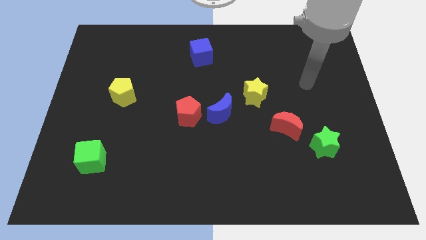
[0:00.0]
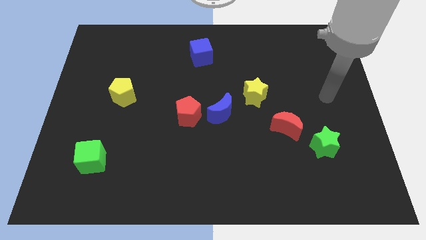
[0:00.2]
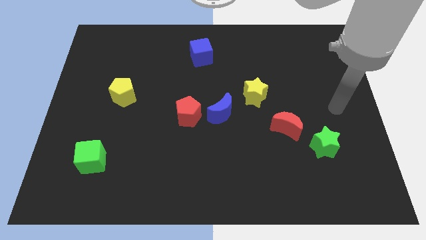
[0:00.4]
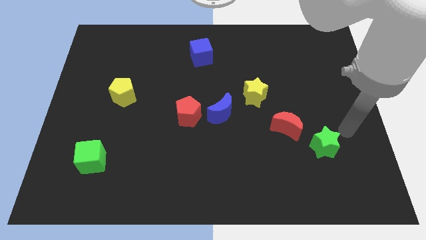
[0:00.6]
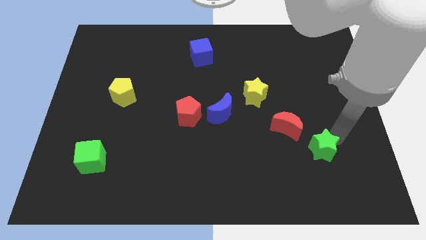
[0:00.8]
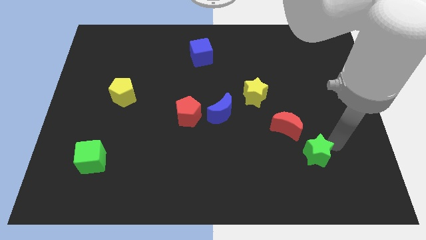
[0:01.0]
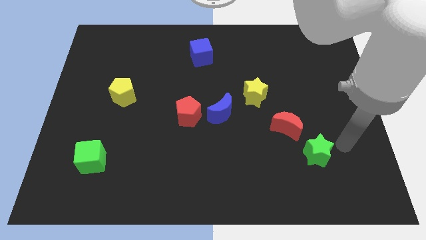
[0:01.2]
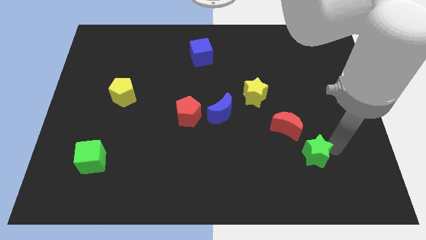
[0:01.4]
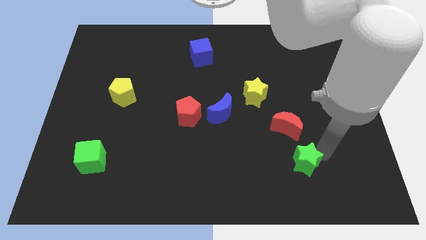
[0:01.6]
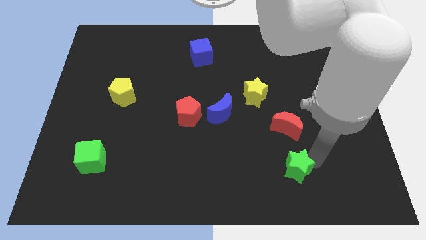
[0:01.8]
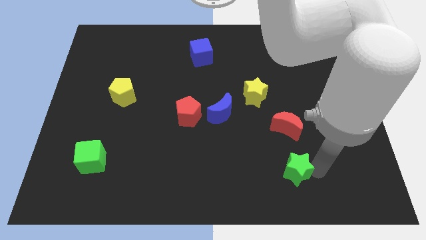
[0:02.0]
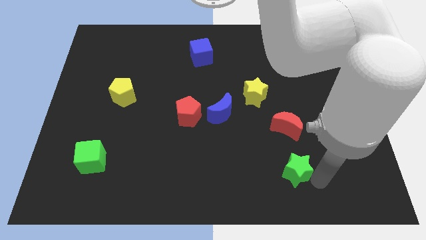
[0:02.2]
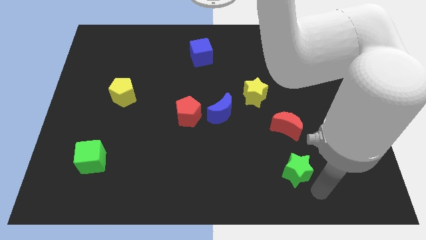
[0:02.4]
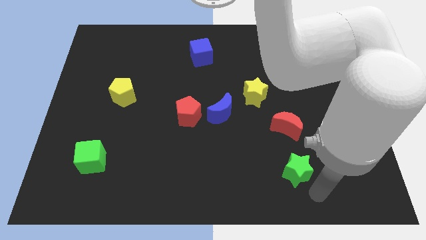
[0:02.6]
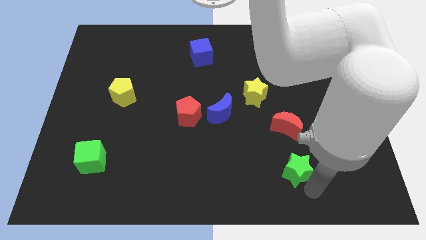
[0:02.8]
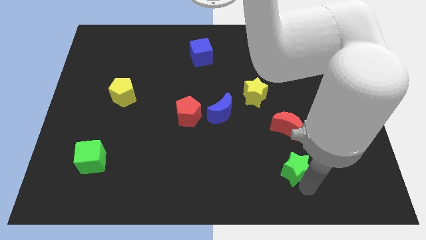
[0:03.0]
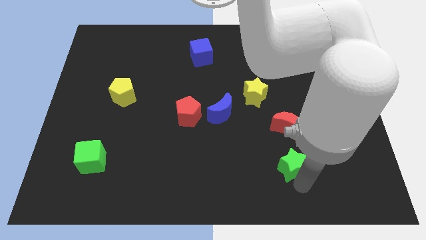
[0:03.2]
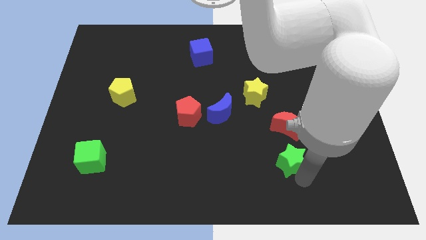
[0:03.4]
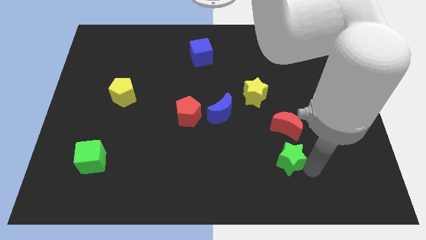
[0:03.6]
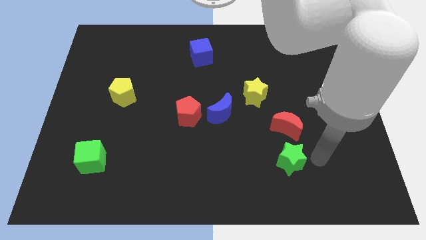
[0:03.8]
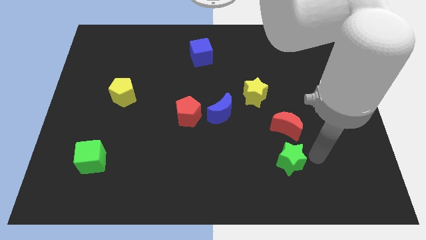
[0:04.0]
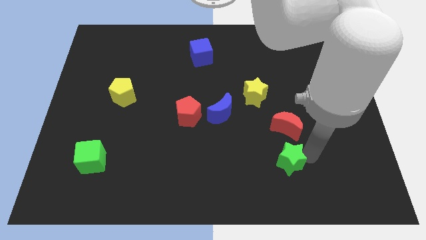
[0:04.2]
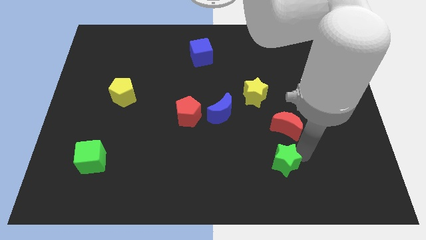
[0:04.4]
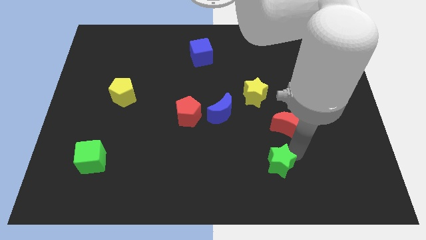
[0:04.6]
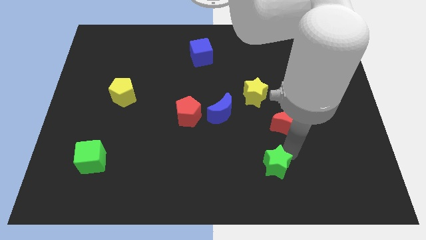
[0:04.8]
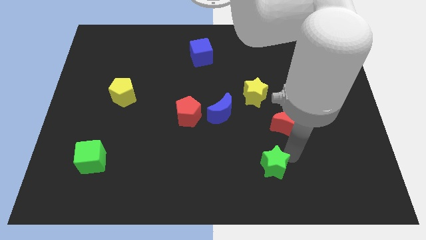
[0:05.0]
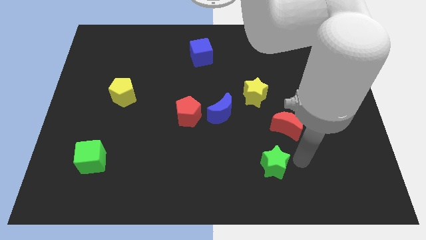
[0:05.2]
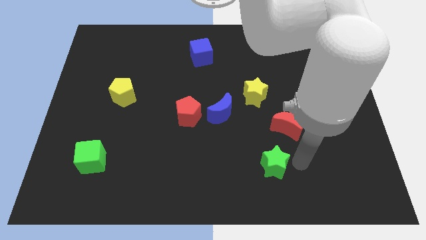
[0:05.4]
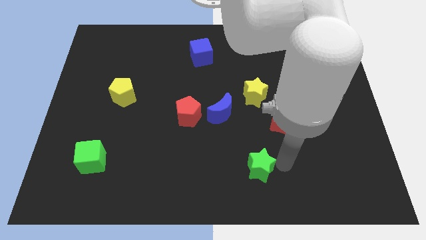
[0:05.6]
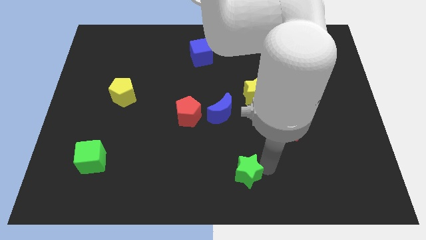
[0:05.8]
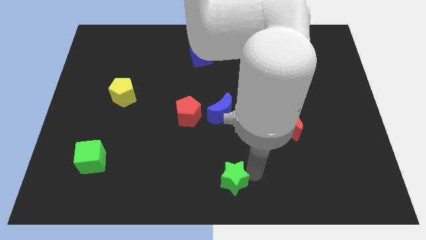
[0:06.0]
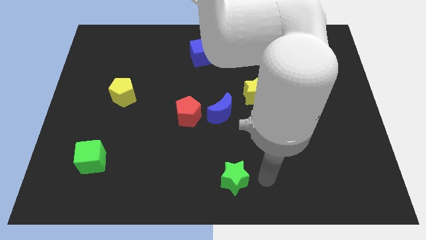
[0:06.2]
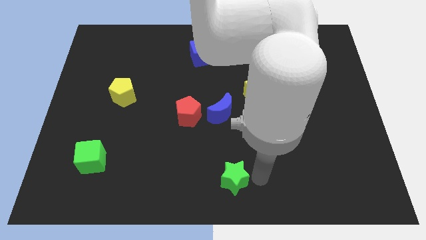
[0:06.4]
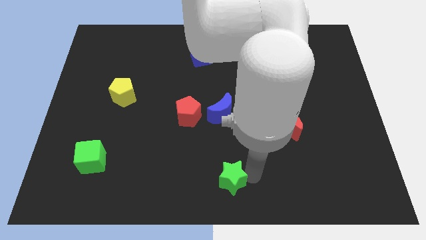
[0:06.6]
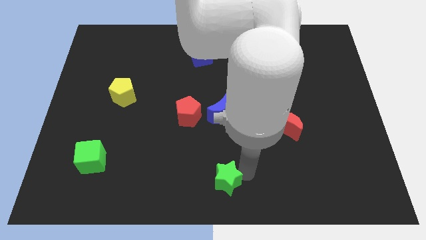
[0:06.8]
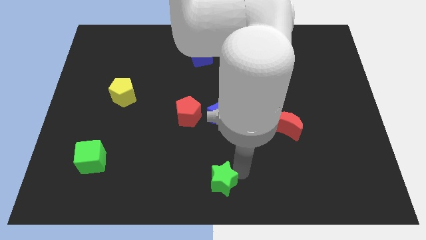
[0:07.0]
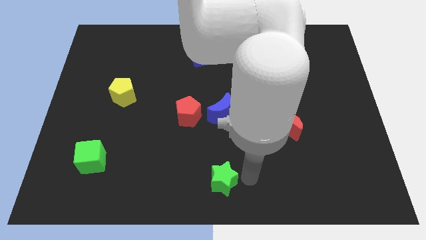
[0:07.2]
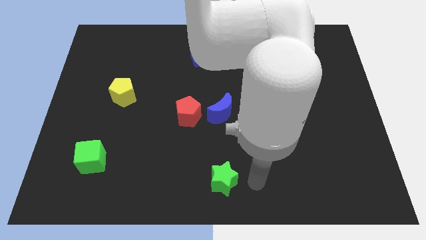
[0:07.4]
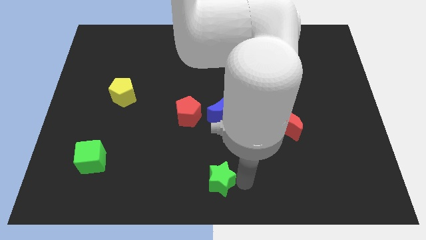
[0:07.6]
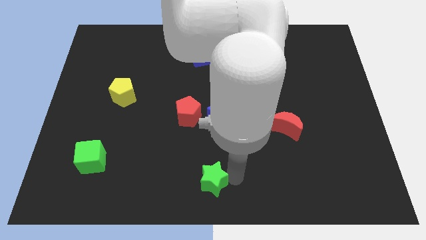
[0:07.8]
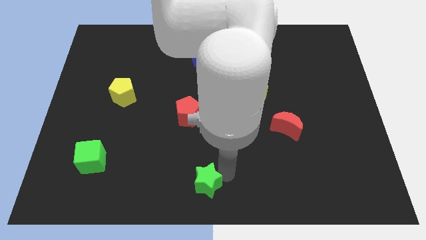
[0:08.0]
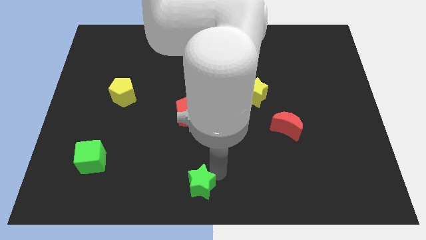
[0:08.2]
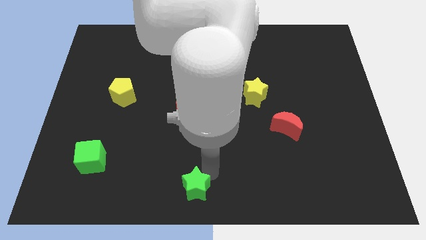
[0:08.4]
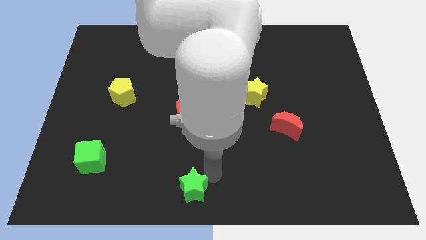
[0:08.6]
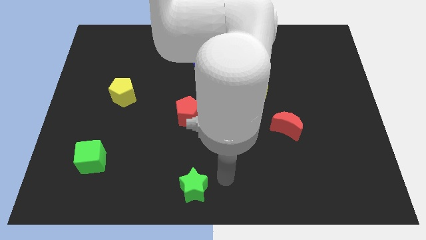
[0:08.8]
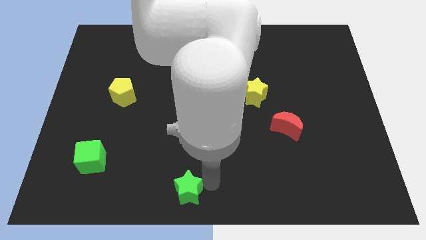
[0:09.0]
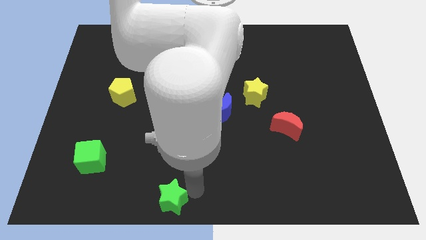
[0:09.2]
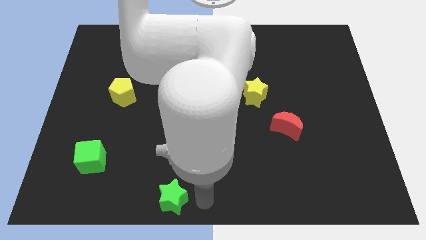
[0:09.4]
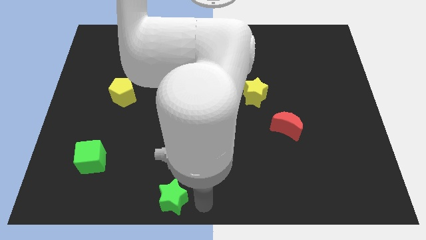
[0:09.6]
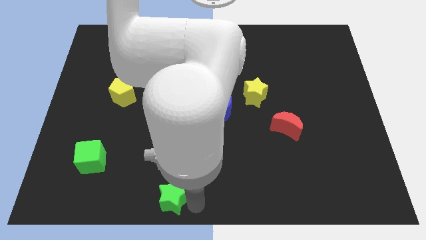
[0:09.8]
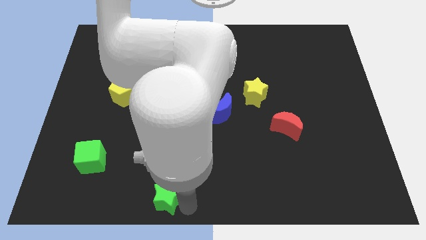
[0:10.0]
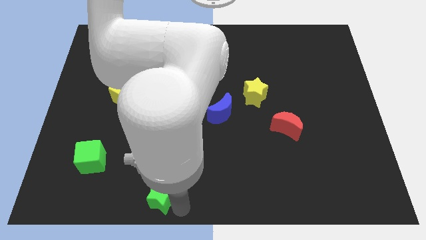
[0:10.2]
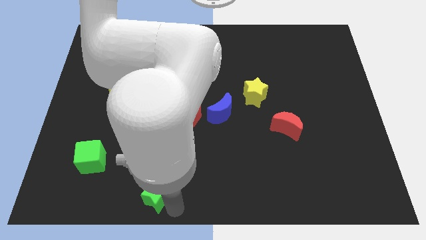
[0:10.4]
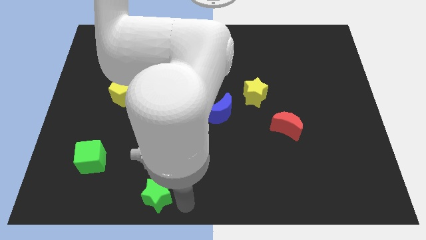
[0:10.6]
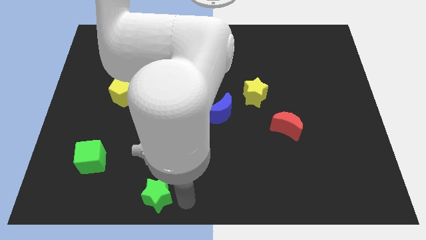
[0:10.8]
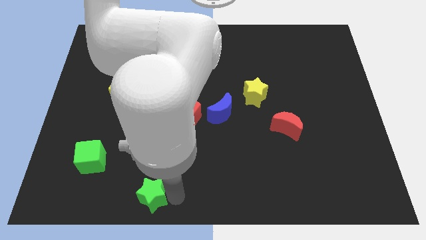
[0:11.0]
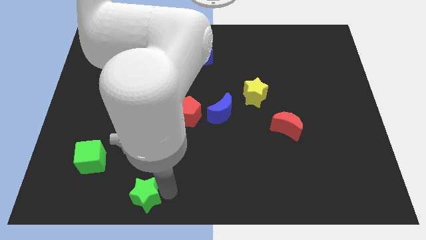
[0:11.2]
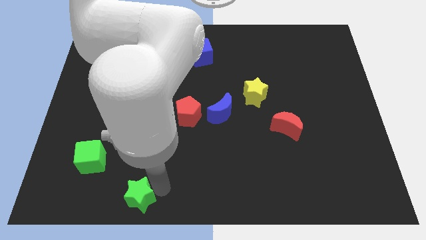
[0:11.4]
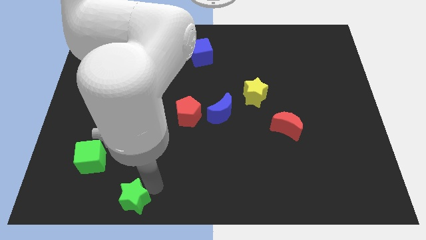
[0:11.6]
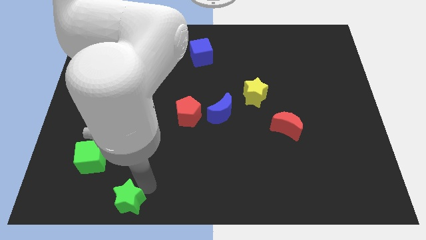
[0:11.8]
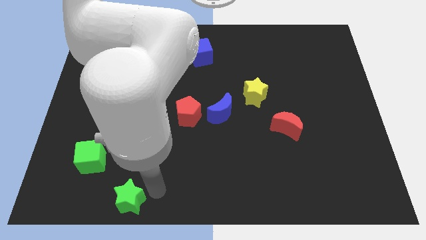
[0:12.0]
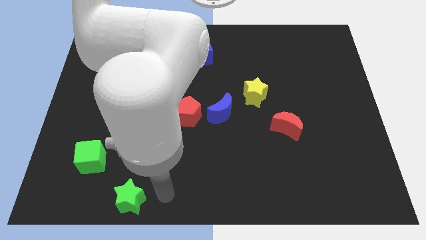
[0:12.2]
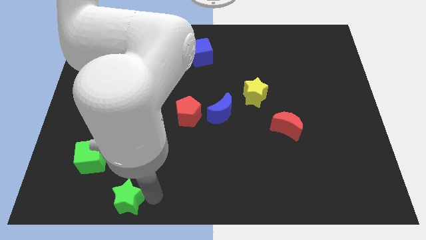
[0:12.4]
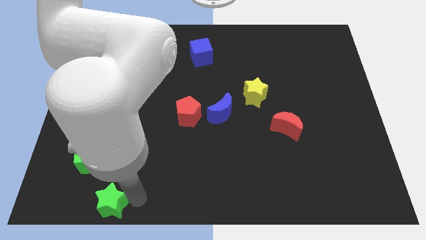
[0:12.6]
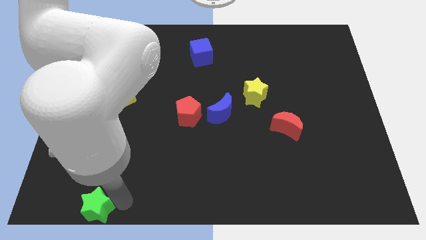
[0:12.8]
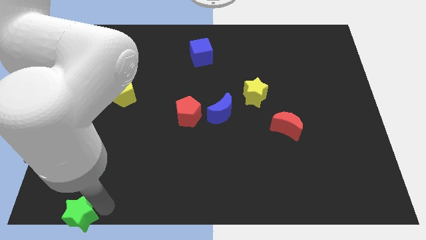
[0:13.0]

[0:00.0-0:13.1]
put the green star to the lower left corner
